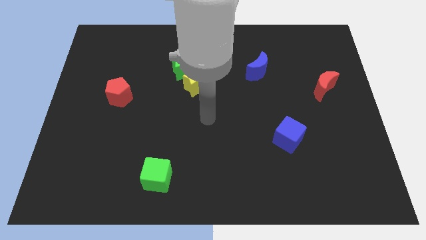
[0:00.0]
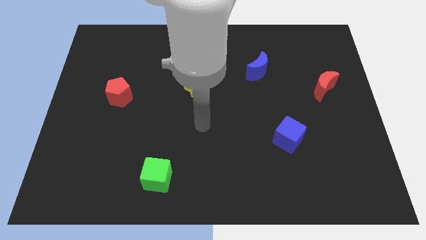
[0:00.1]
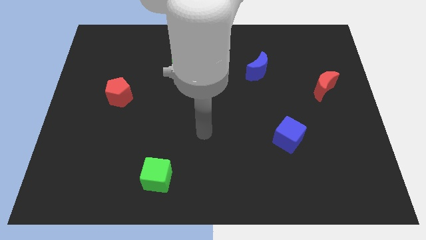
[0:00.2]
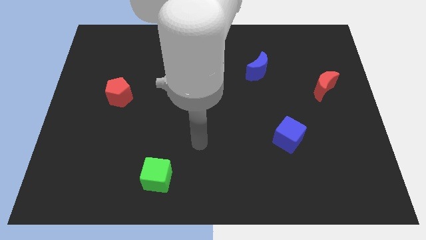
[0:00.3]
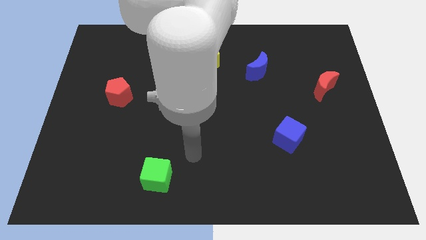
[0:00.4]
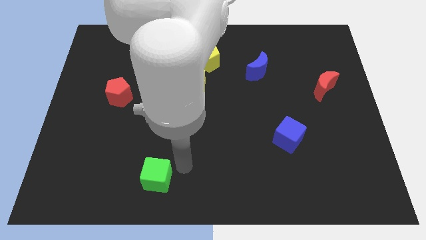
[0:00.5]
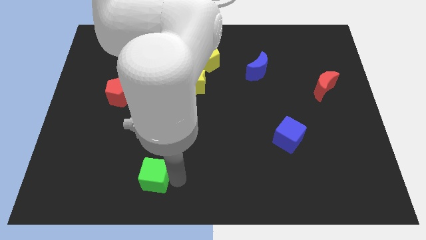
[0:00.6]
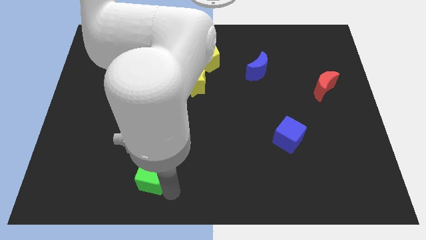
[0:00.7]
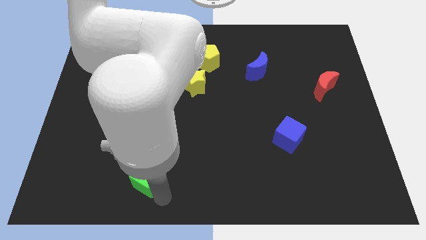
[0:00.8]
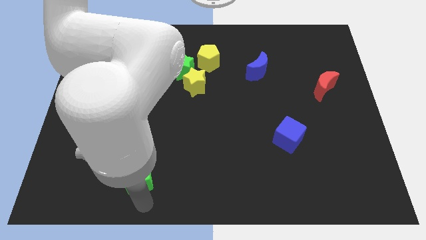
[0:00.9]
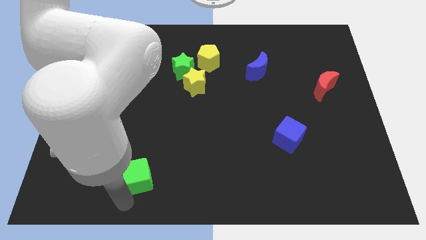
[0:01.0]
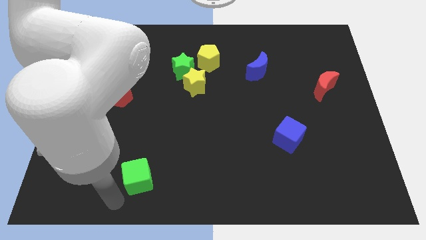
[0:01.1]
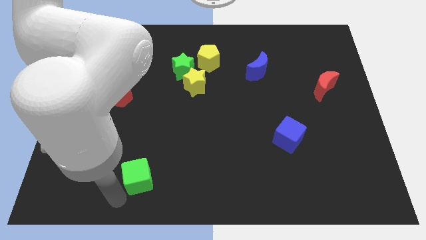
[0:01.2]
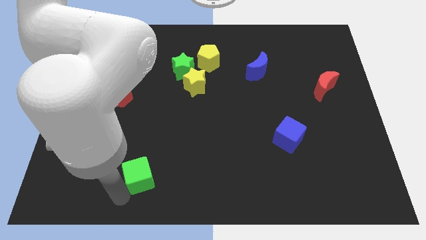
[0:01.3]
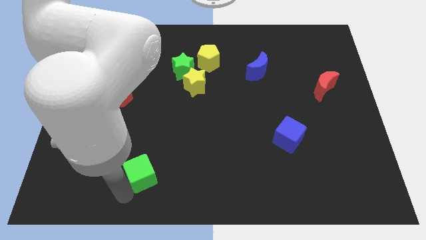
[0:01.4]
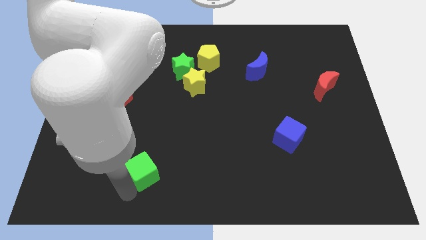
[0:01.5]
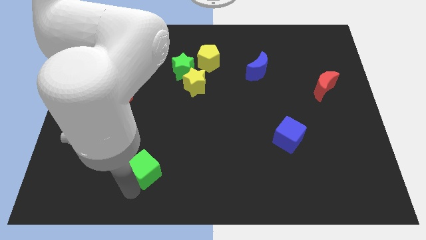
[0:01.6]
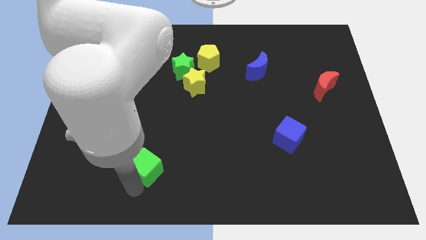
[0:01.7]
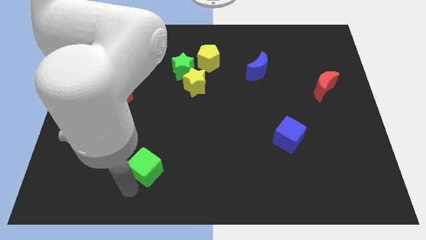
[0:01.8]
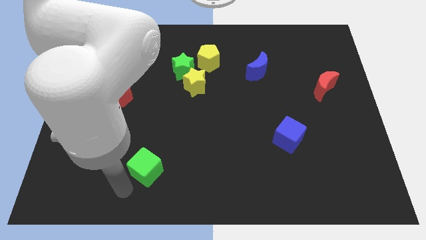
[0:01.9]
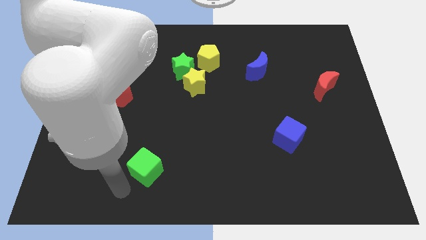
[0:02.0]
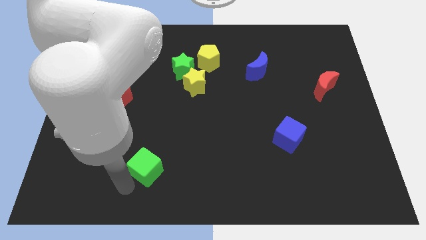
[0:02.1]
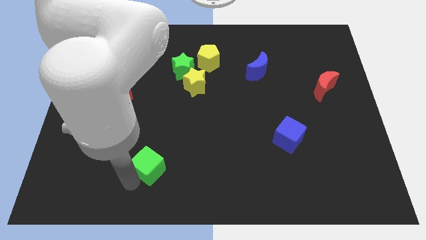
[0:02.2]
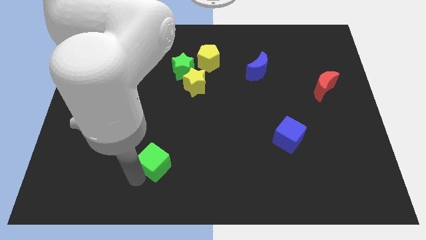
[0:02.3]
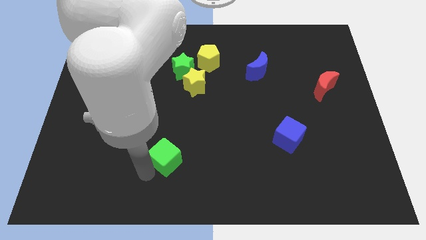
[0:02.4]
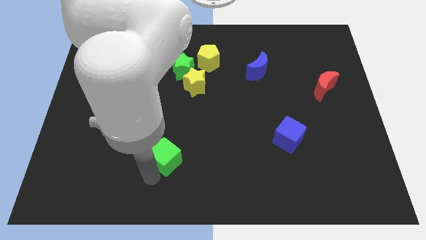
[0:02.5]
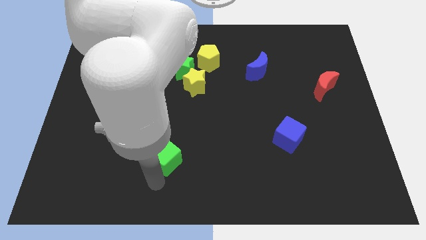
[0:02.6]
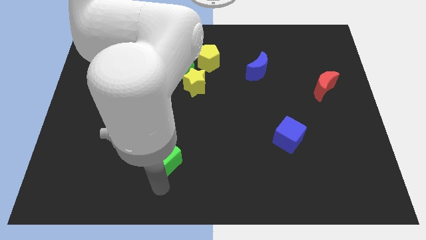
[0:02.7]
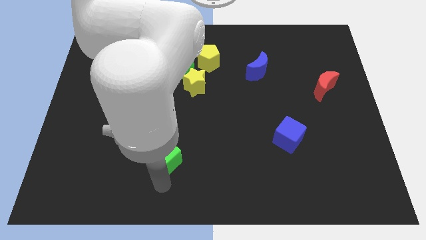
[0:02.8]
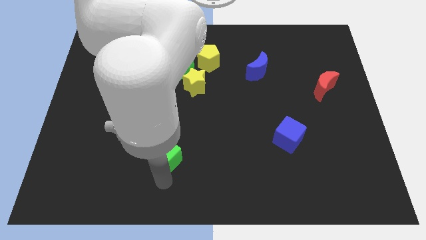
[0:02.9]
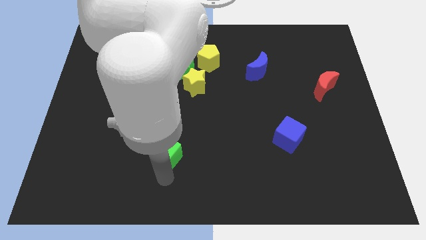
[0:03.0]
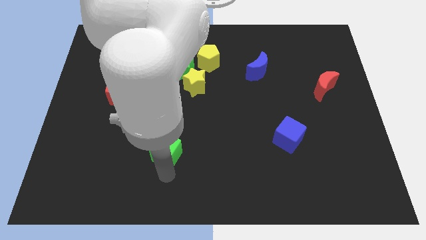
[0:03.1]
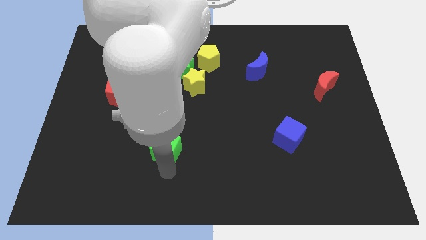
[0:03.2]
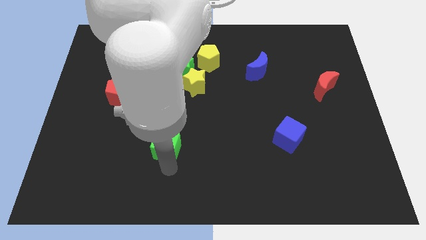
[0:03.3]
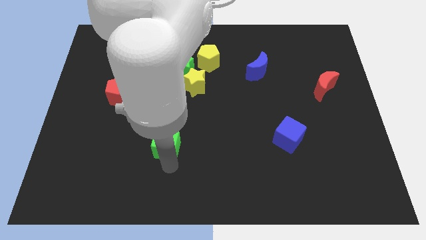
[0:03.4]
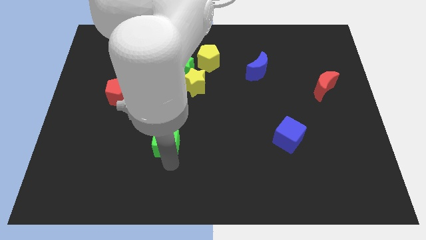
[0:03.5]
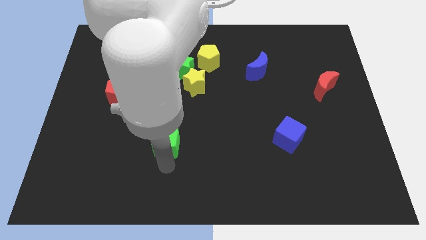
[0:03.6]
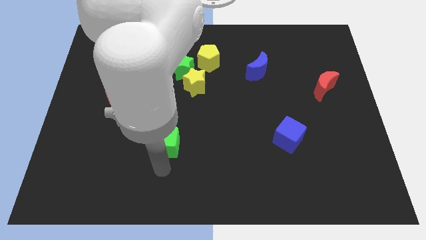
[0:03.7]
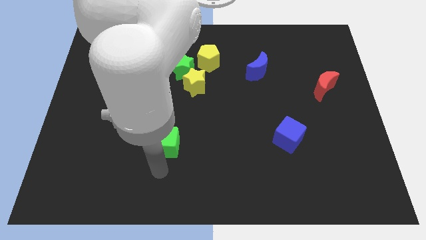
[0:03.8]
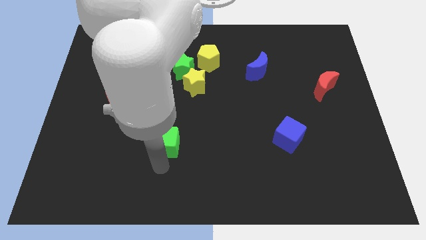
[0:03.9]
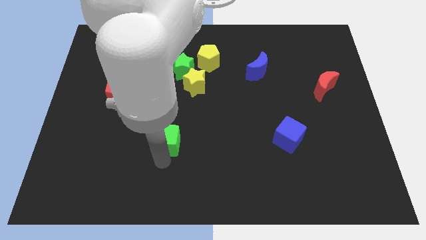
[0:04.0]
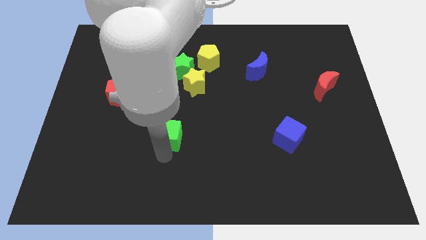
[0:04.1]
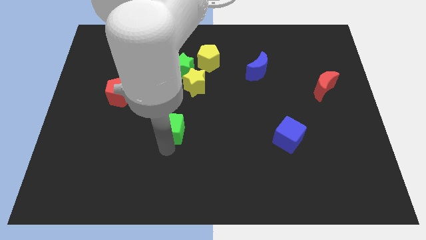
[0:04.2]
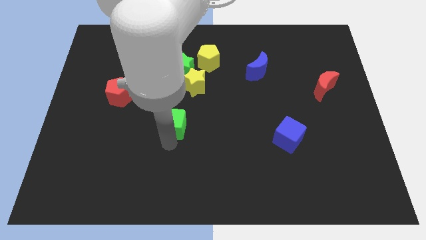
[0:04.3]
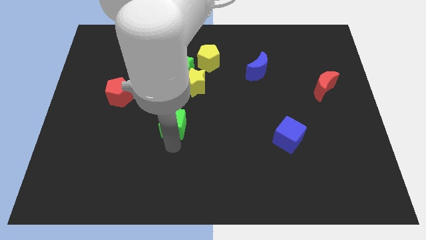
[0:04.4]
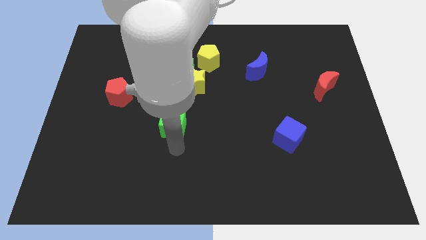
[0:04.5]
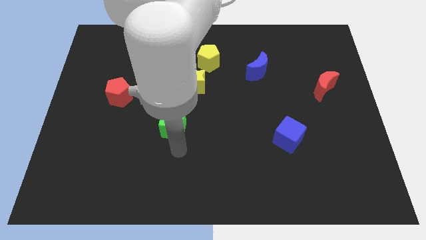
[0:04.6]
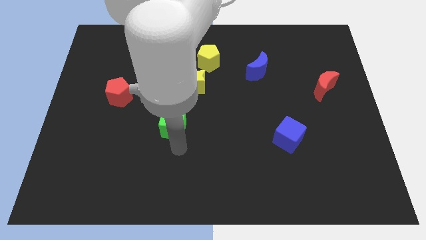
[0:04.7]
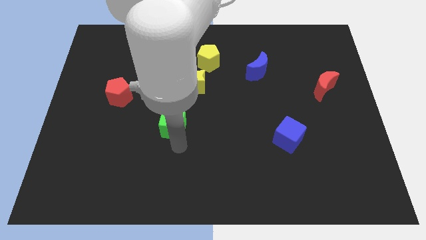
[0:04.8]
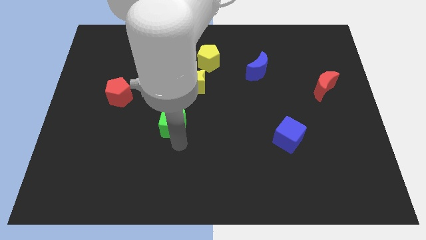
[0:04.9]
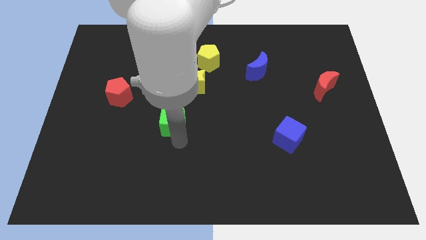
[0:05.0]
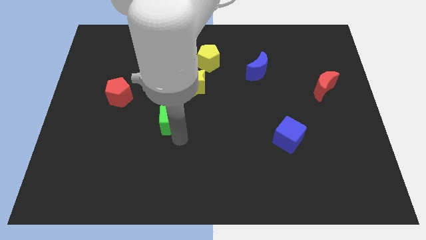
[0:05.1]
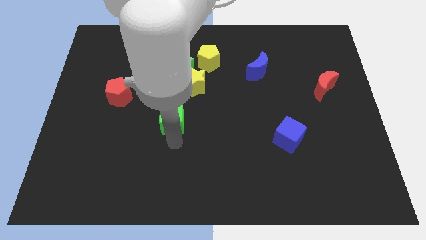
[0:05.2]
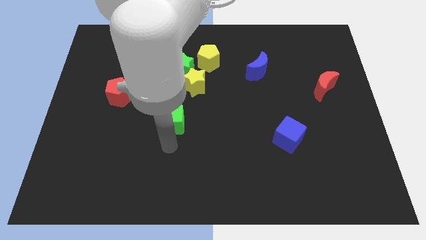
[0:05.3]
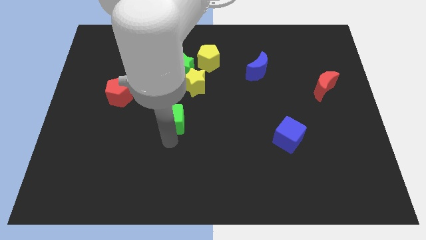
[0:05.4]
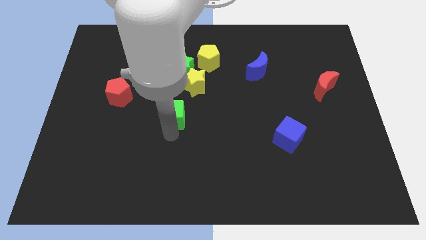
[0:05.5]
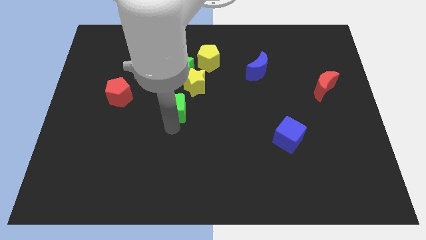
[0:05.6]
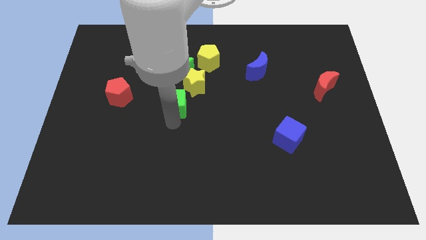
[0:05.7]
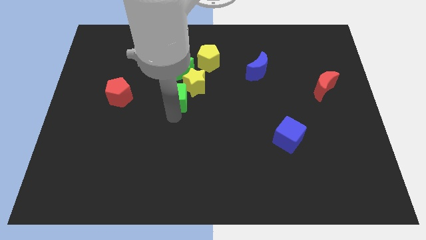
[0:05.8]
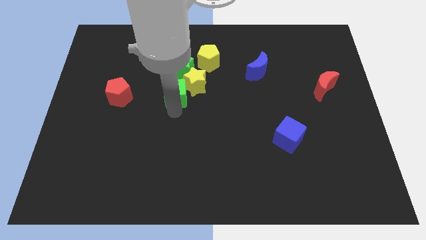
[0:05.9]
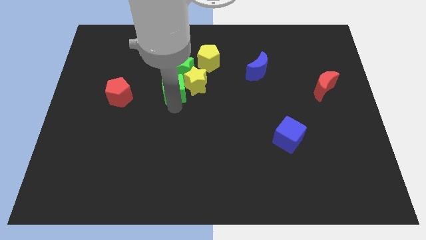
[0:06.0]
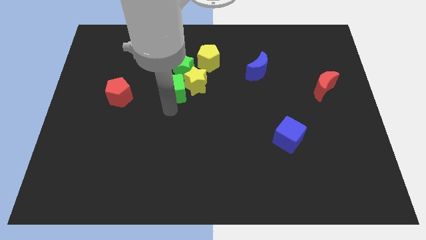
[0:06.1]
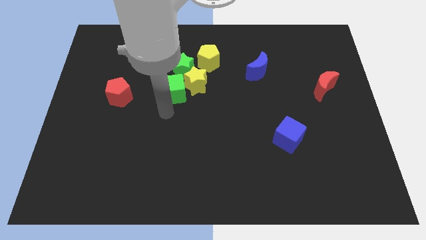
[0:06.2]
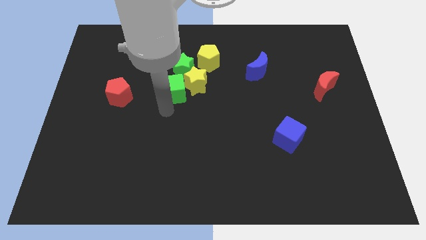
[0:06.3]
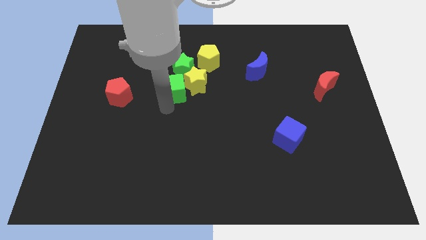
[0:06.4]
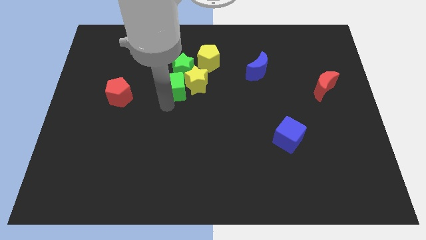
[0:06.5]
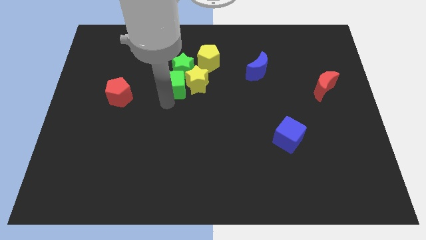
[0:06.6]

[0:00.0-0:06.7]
put the green cube next to the green star

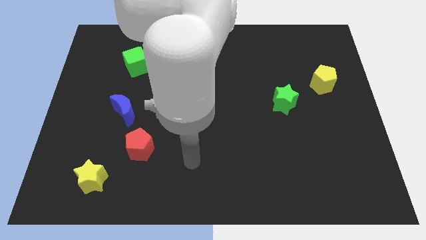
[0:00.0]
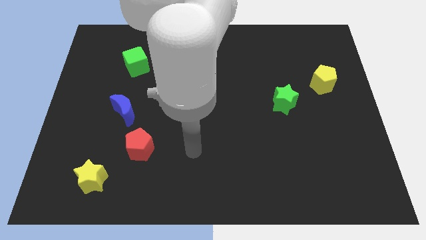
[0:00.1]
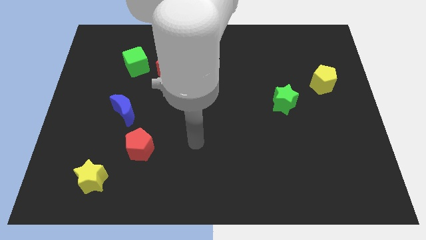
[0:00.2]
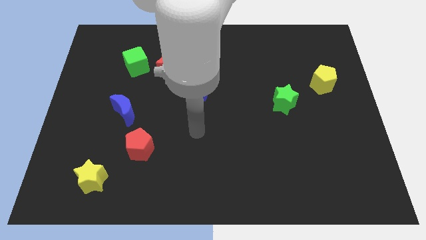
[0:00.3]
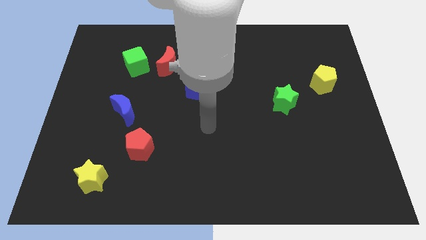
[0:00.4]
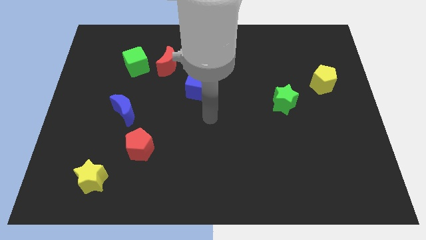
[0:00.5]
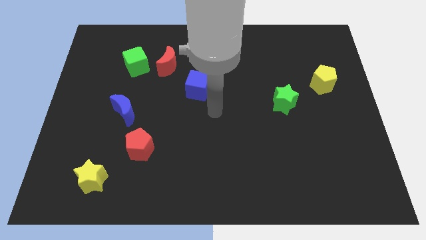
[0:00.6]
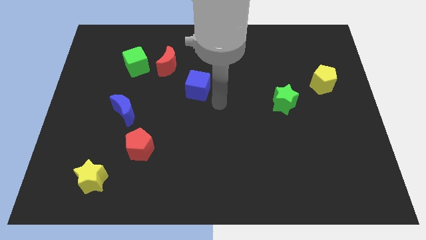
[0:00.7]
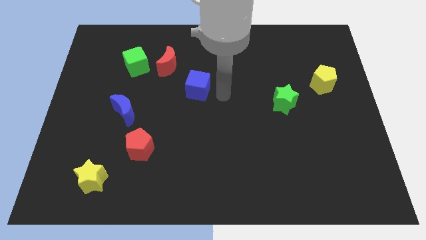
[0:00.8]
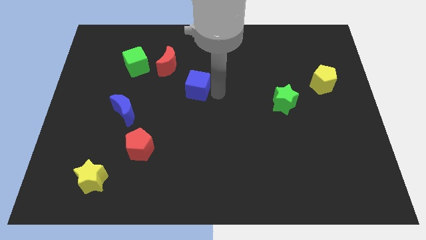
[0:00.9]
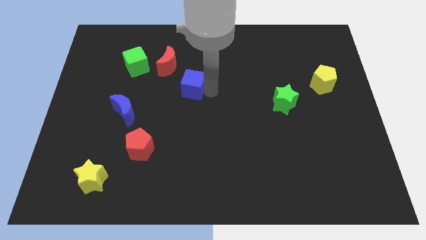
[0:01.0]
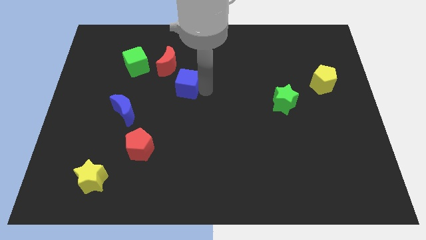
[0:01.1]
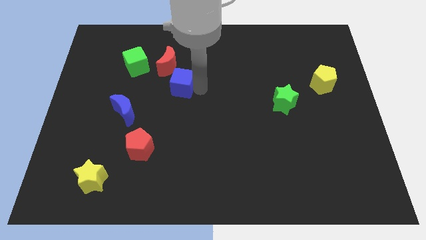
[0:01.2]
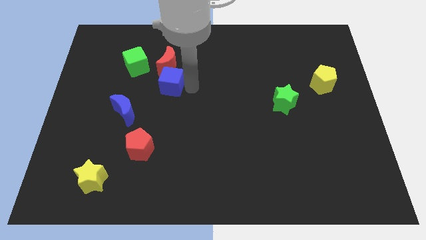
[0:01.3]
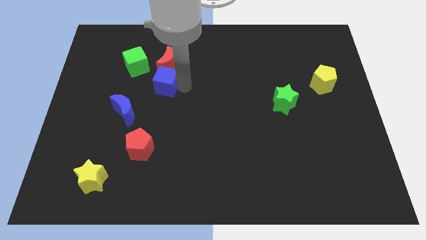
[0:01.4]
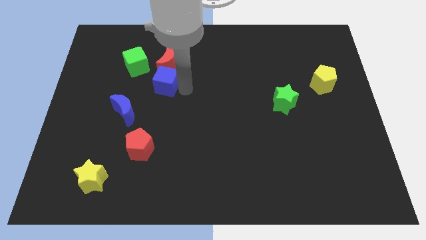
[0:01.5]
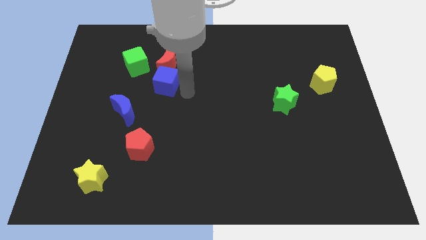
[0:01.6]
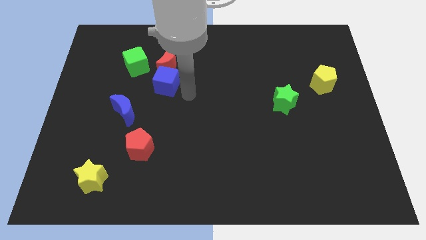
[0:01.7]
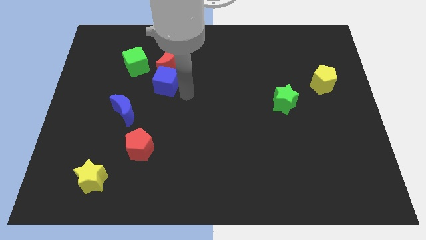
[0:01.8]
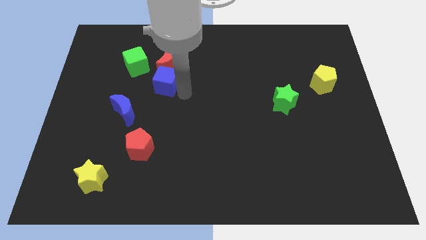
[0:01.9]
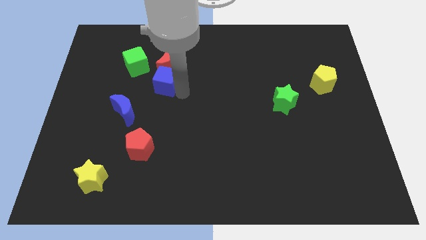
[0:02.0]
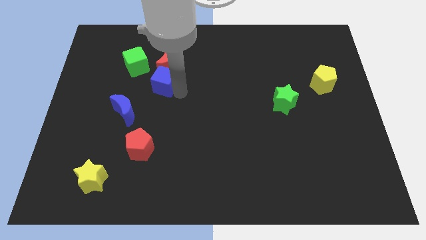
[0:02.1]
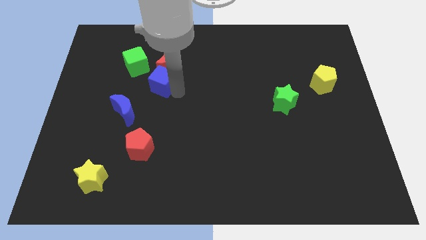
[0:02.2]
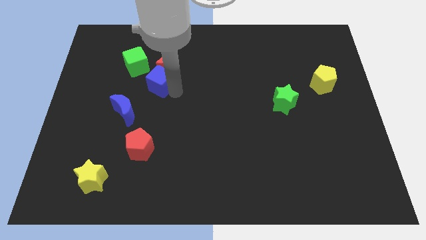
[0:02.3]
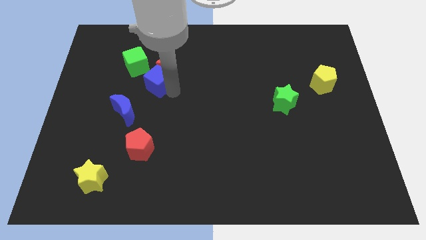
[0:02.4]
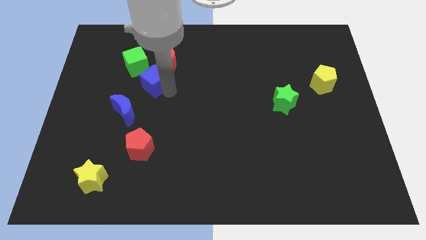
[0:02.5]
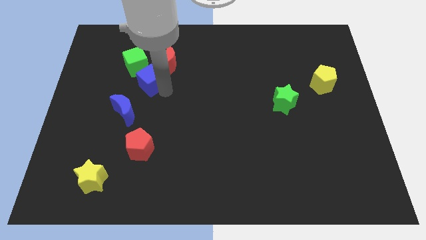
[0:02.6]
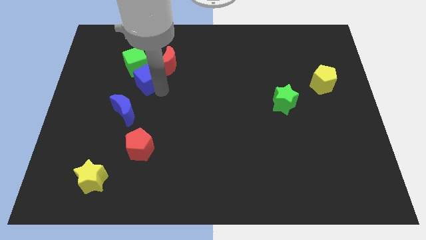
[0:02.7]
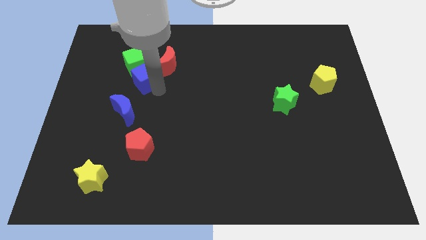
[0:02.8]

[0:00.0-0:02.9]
move the blue cube to the green cube
